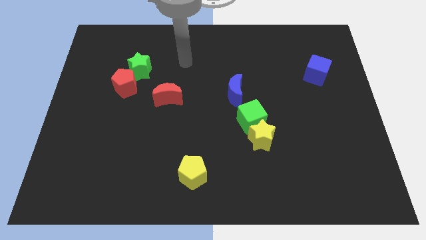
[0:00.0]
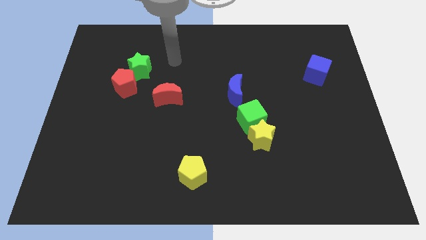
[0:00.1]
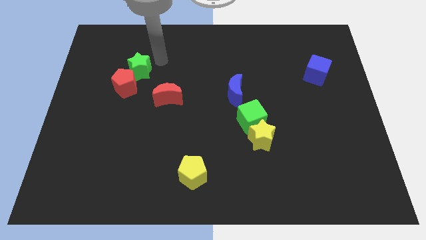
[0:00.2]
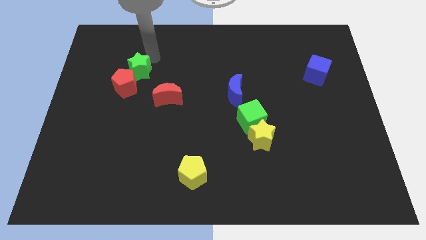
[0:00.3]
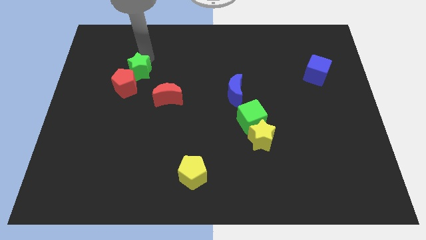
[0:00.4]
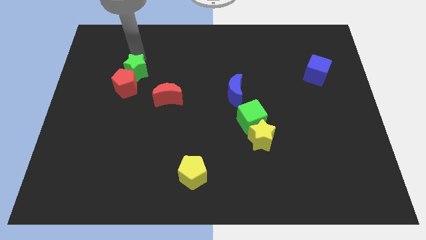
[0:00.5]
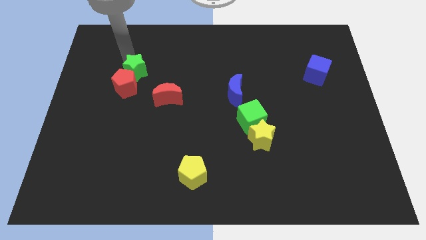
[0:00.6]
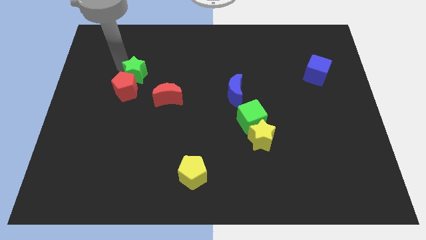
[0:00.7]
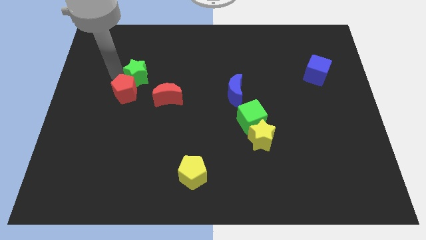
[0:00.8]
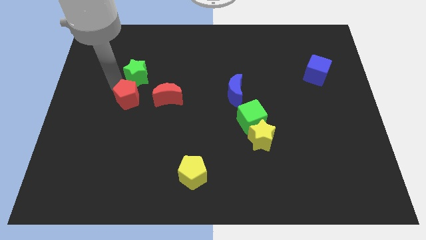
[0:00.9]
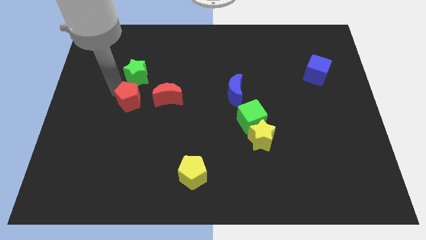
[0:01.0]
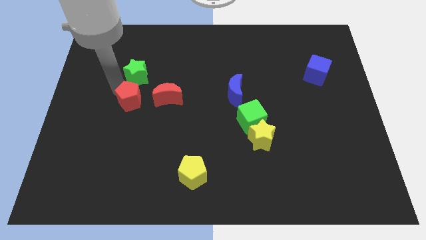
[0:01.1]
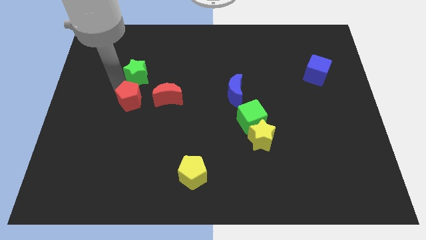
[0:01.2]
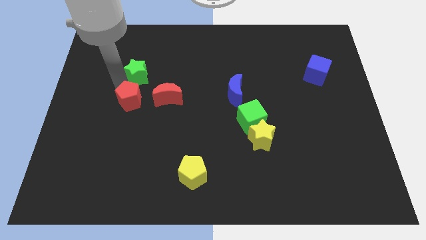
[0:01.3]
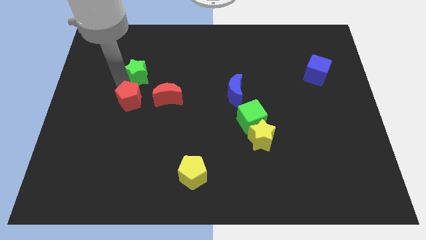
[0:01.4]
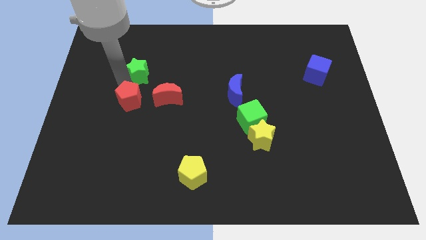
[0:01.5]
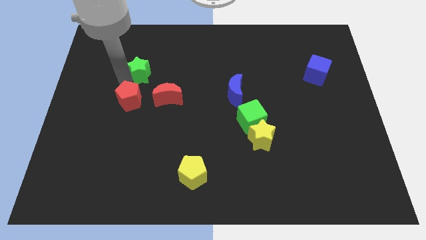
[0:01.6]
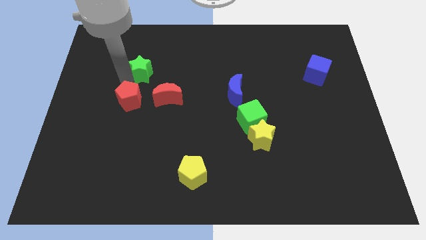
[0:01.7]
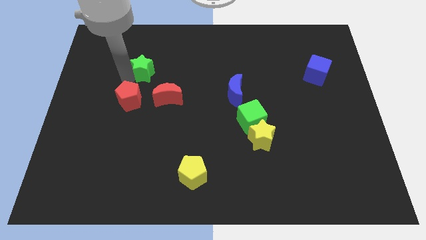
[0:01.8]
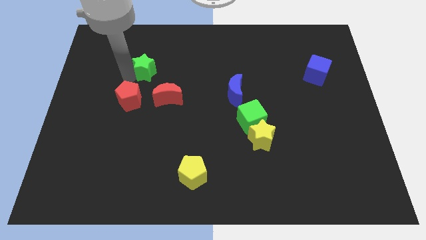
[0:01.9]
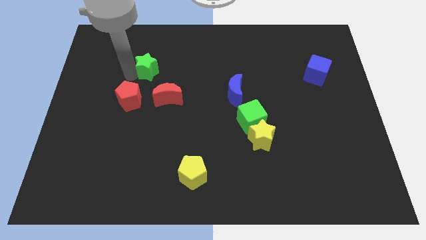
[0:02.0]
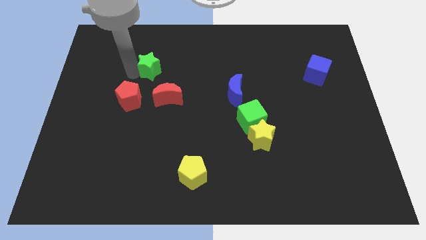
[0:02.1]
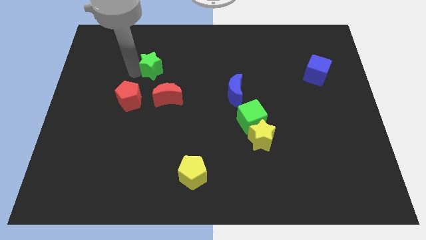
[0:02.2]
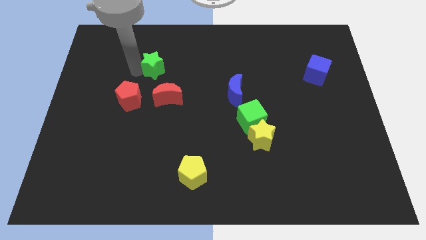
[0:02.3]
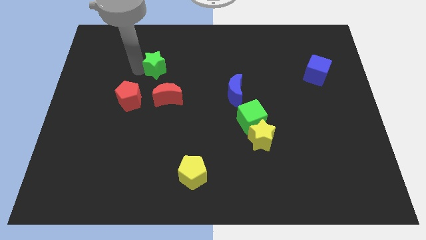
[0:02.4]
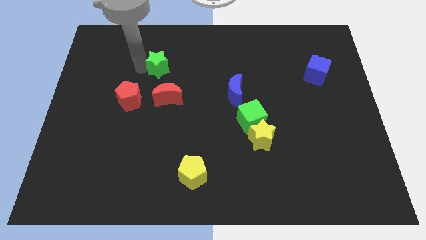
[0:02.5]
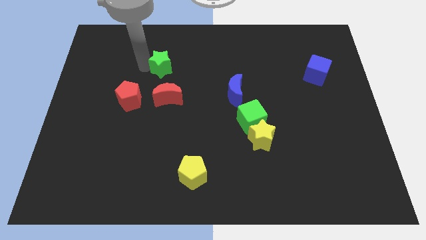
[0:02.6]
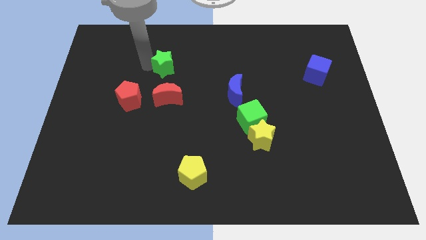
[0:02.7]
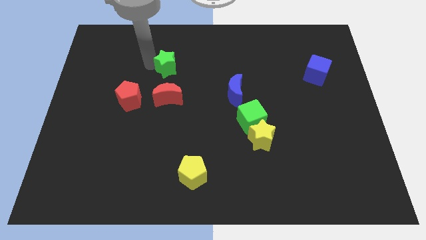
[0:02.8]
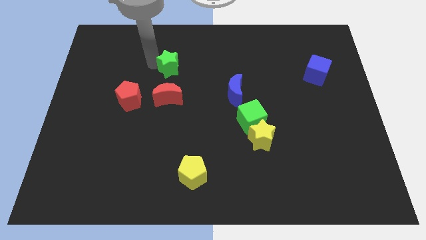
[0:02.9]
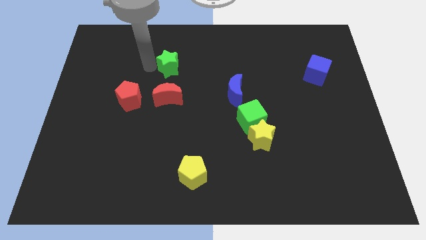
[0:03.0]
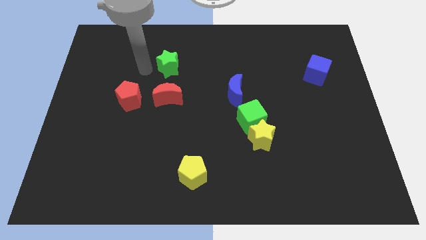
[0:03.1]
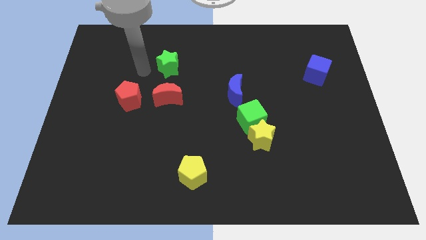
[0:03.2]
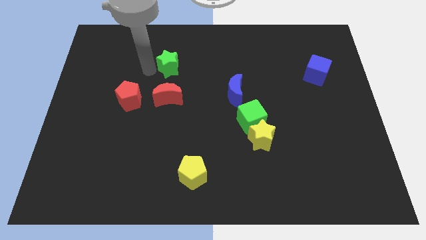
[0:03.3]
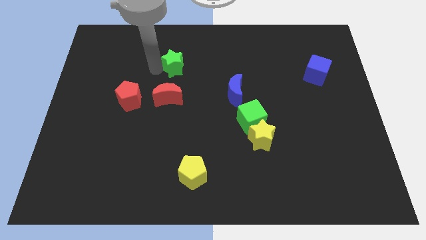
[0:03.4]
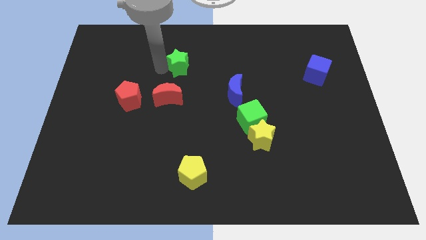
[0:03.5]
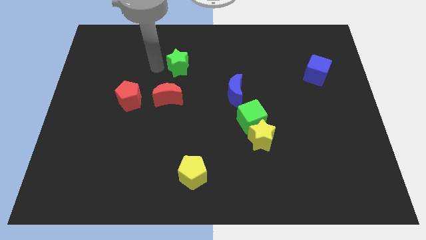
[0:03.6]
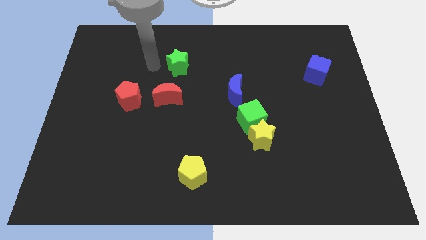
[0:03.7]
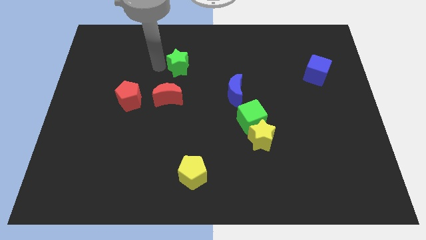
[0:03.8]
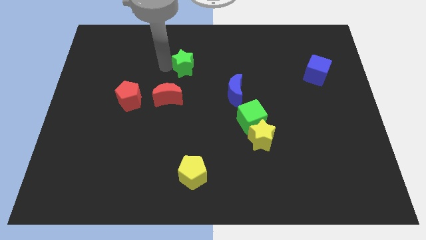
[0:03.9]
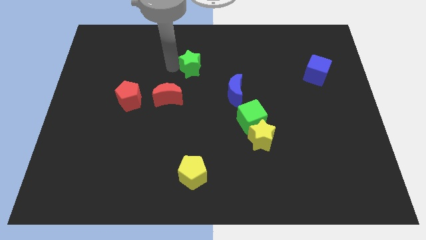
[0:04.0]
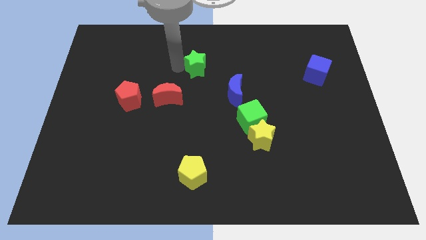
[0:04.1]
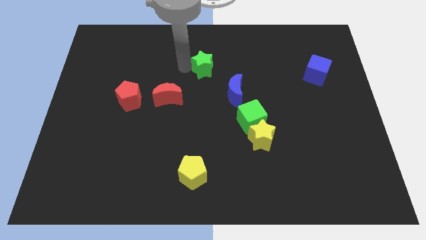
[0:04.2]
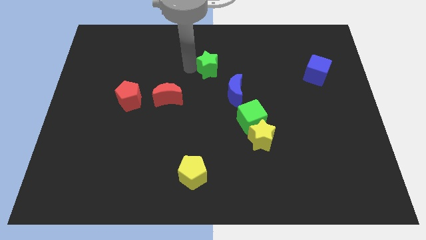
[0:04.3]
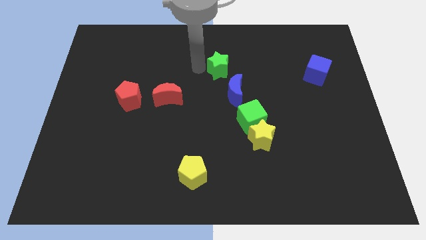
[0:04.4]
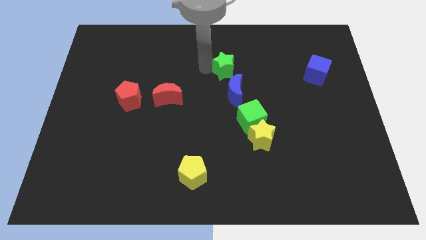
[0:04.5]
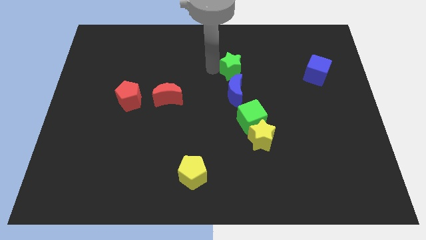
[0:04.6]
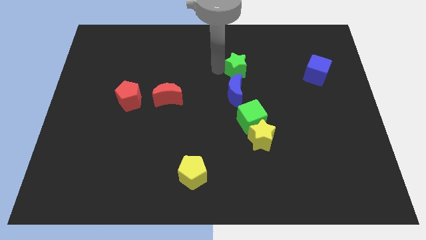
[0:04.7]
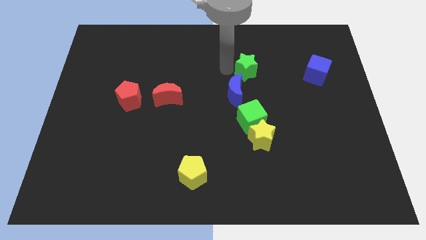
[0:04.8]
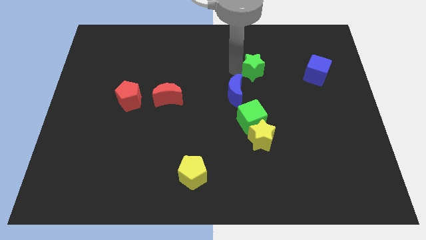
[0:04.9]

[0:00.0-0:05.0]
slide the green star to the left of the blue cube

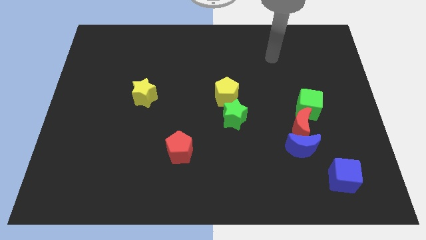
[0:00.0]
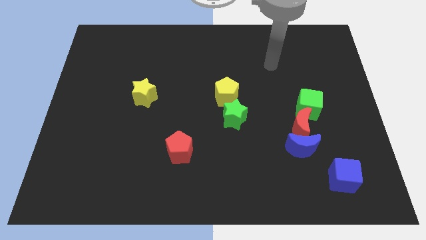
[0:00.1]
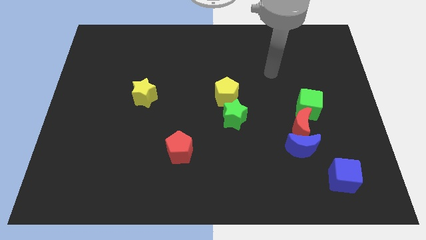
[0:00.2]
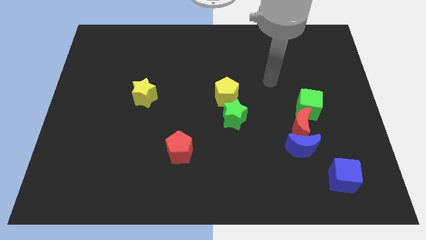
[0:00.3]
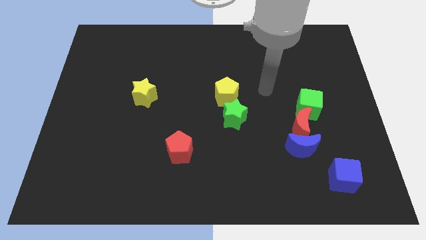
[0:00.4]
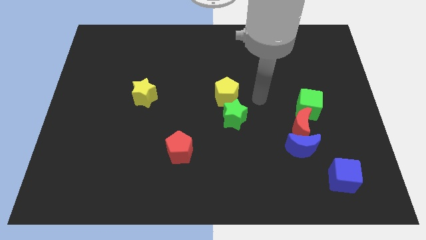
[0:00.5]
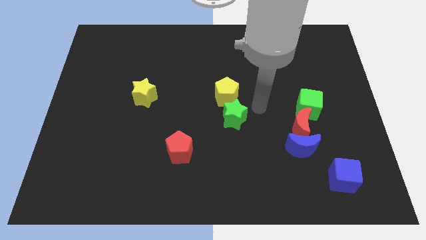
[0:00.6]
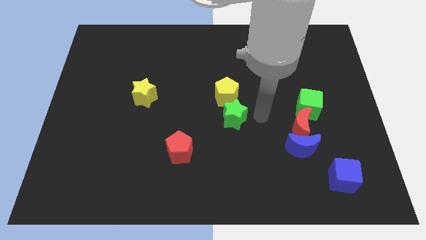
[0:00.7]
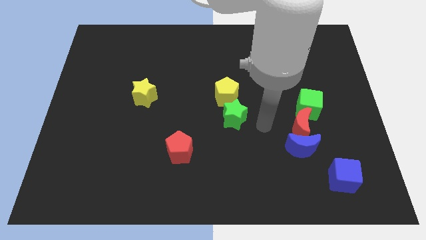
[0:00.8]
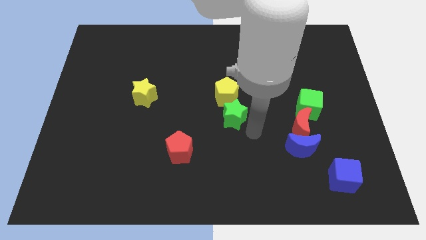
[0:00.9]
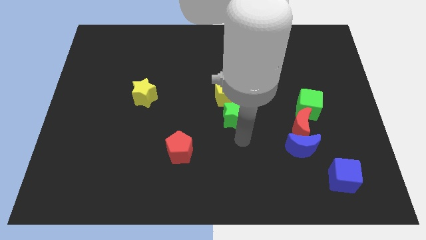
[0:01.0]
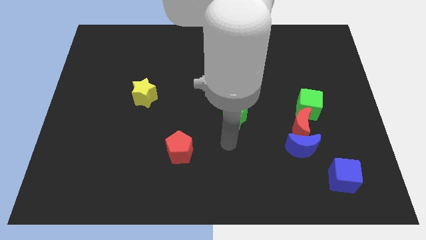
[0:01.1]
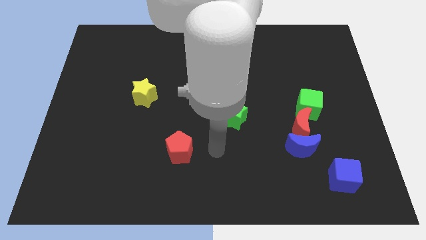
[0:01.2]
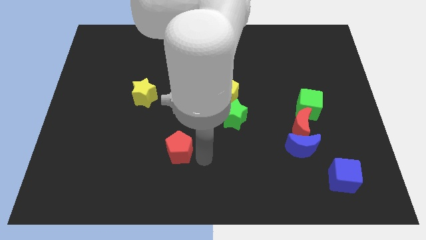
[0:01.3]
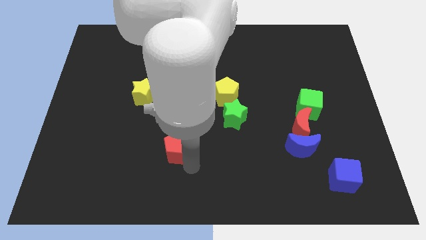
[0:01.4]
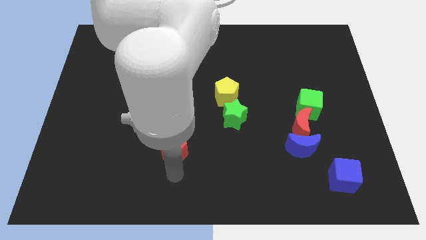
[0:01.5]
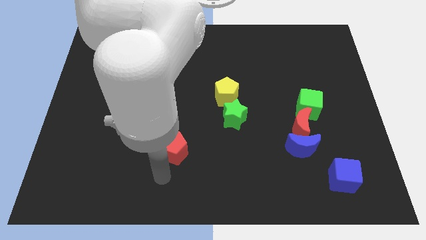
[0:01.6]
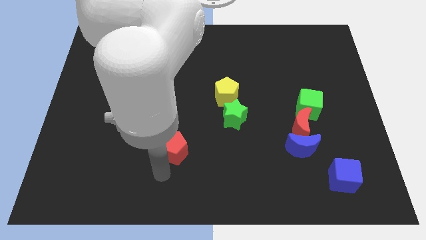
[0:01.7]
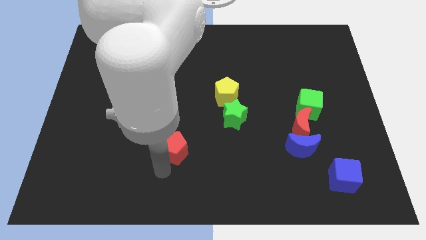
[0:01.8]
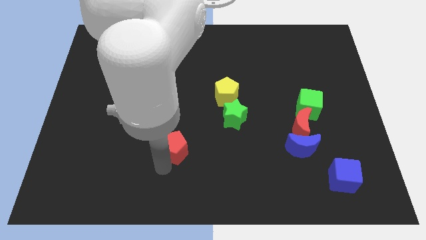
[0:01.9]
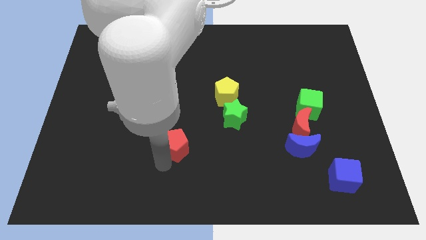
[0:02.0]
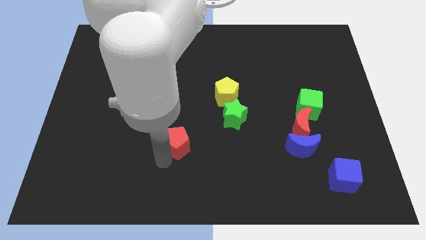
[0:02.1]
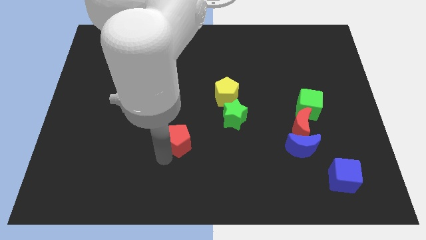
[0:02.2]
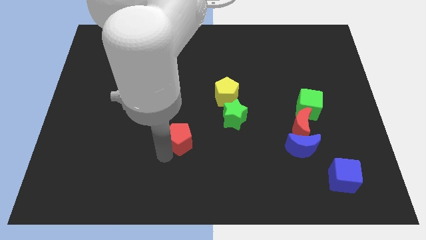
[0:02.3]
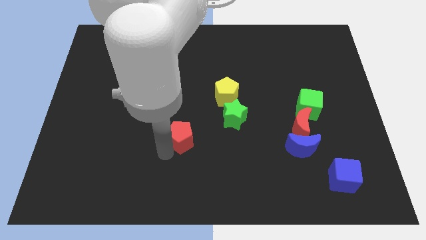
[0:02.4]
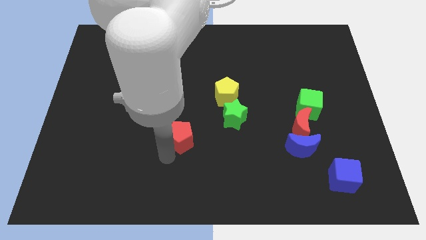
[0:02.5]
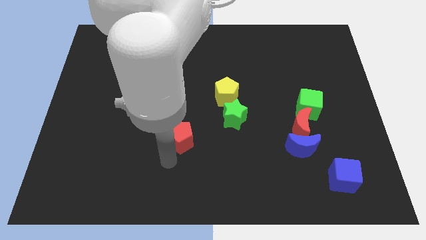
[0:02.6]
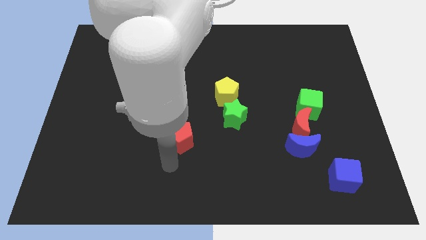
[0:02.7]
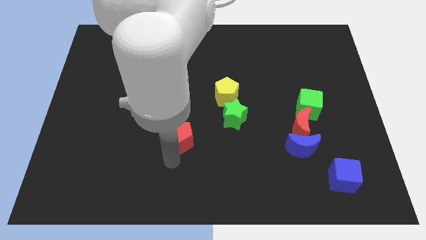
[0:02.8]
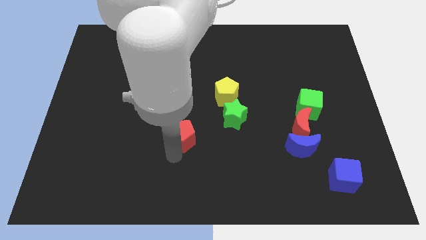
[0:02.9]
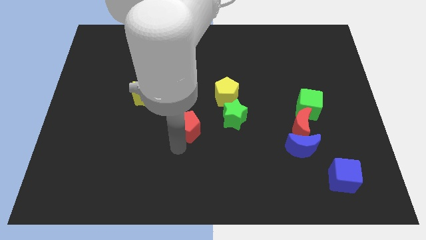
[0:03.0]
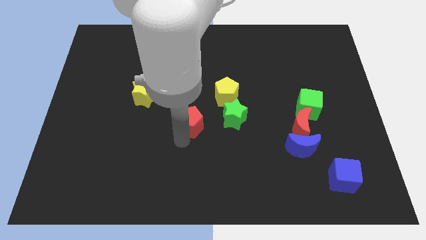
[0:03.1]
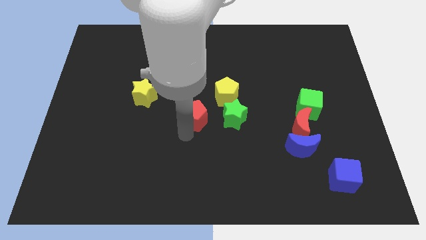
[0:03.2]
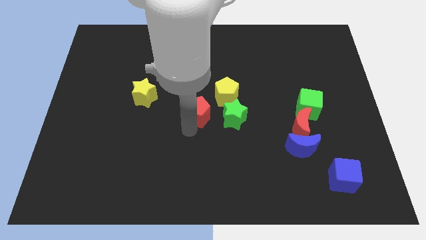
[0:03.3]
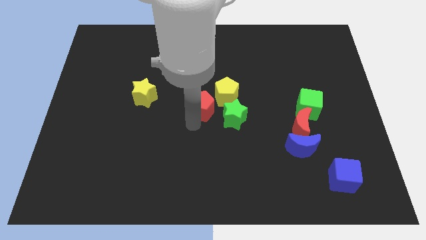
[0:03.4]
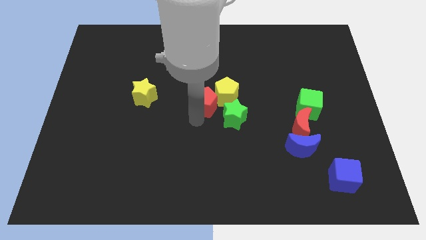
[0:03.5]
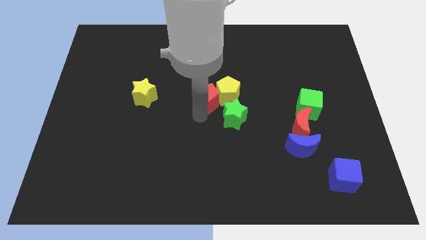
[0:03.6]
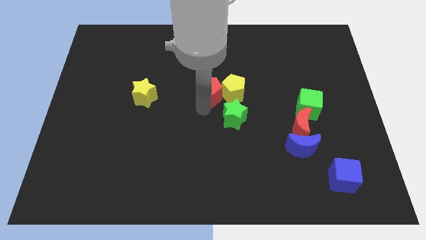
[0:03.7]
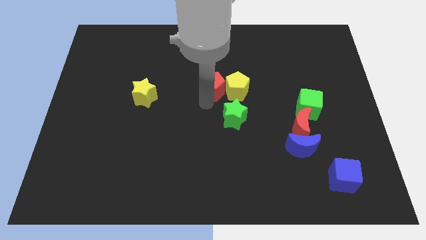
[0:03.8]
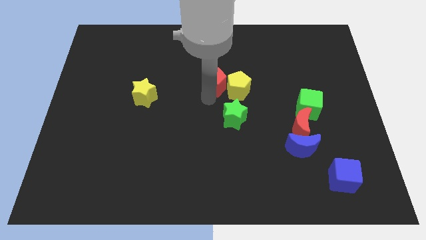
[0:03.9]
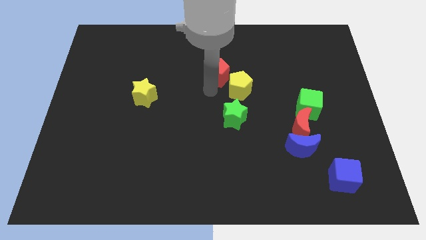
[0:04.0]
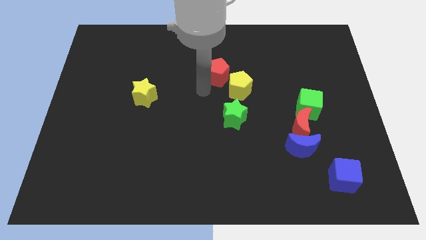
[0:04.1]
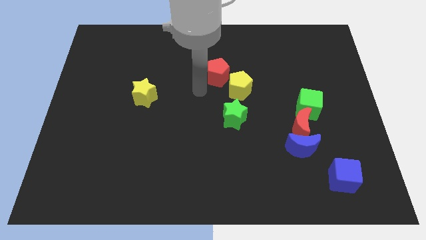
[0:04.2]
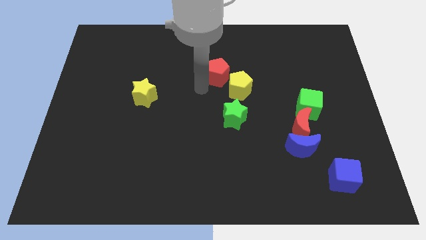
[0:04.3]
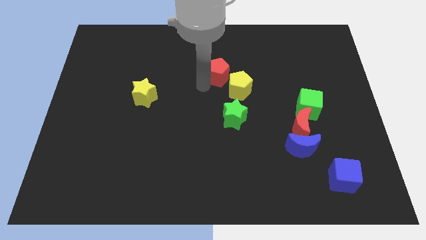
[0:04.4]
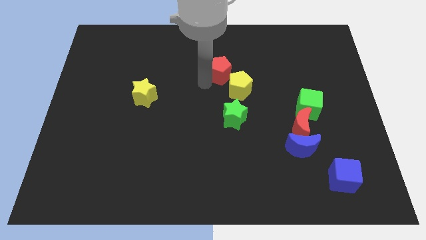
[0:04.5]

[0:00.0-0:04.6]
move the red pentagon to the top of the yellow pentagon
